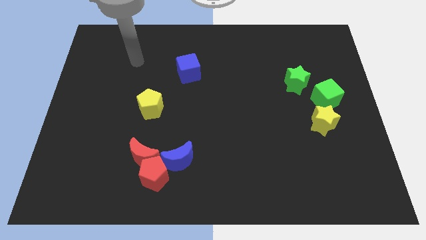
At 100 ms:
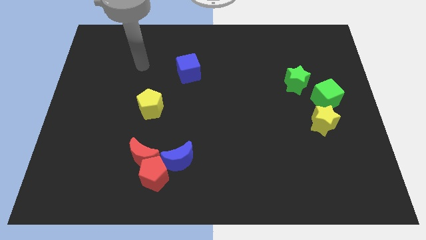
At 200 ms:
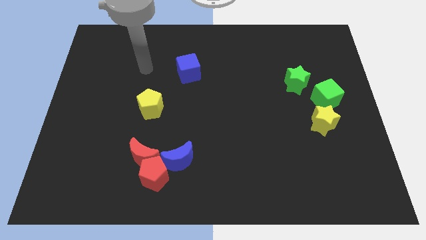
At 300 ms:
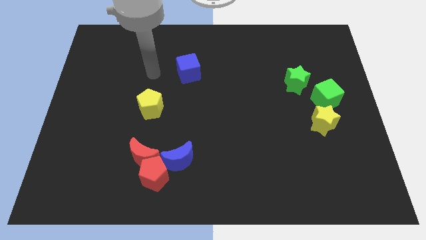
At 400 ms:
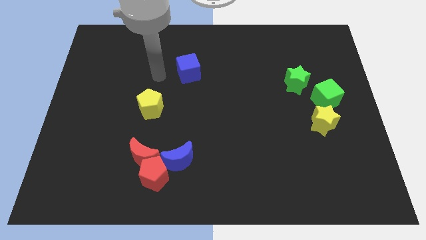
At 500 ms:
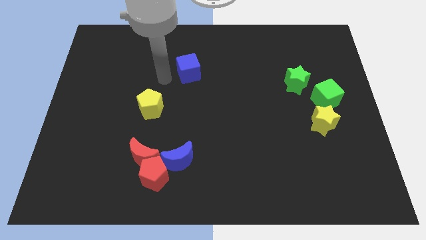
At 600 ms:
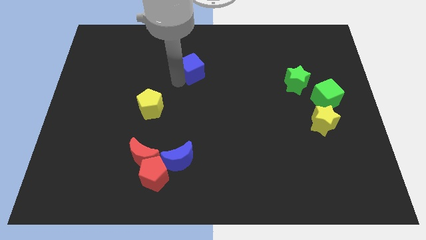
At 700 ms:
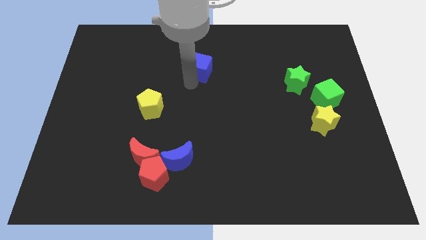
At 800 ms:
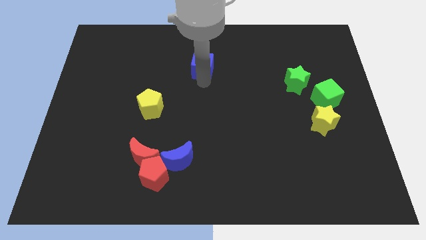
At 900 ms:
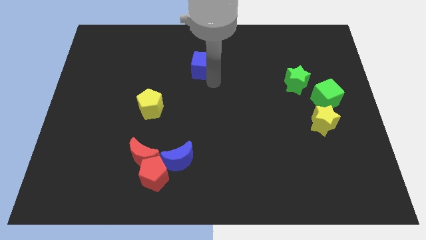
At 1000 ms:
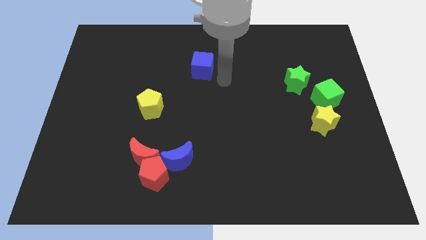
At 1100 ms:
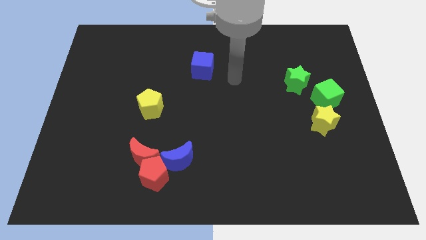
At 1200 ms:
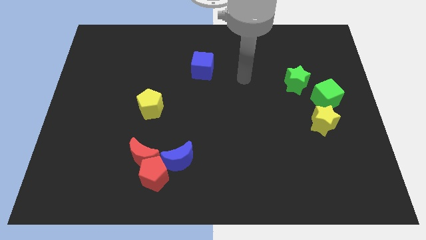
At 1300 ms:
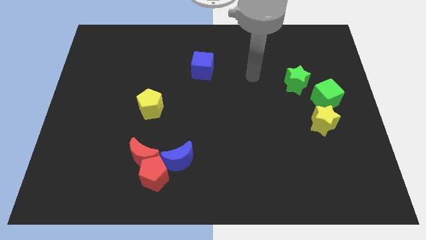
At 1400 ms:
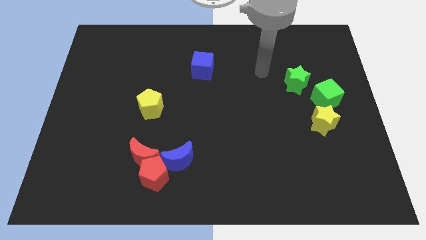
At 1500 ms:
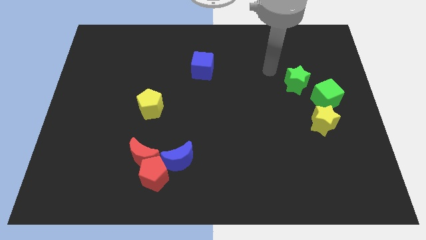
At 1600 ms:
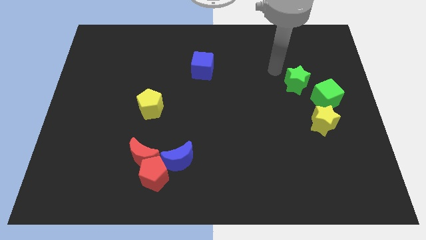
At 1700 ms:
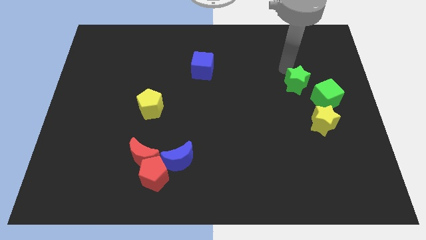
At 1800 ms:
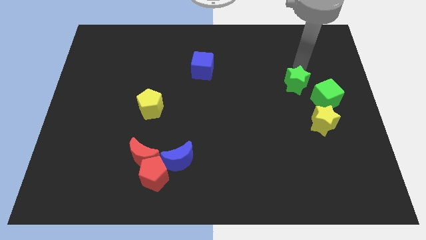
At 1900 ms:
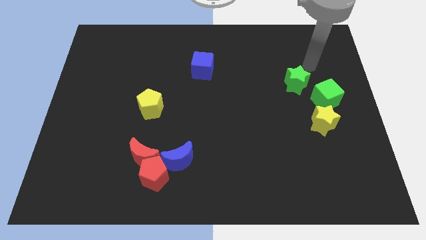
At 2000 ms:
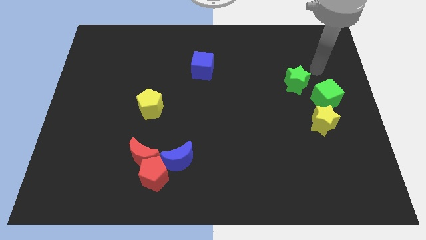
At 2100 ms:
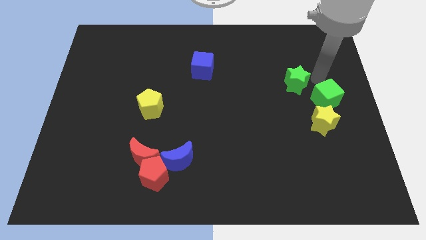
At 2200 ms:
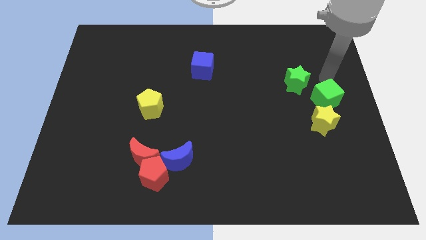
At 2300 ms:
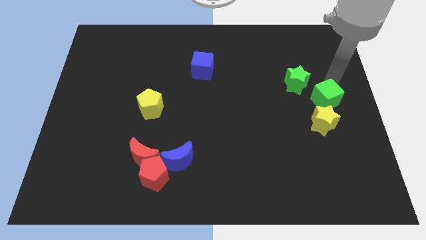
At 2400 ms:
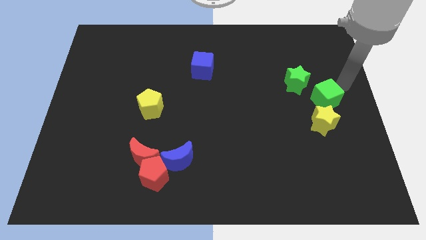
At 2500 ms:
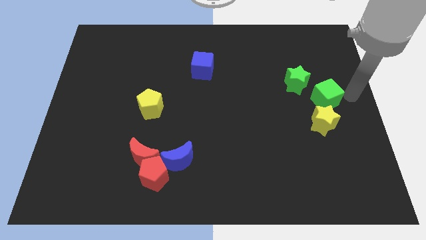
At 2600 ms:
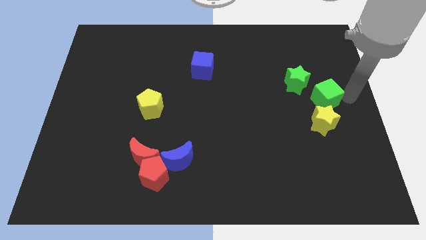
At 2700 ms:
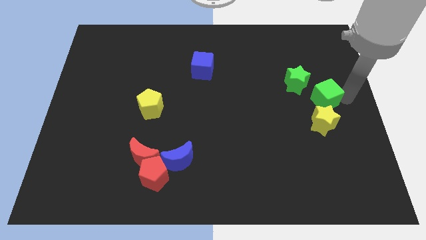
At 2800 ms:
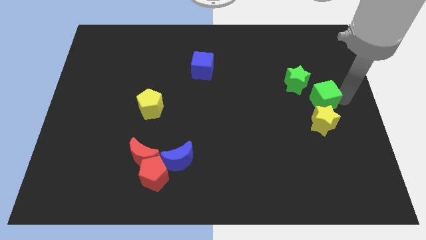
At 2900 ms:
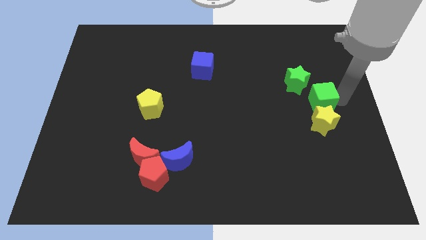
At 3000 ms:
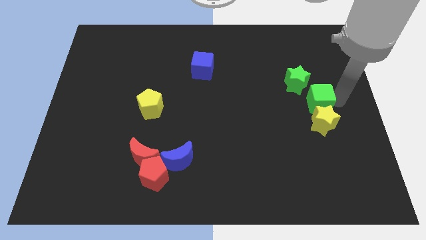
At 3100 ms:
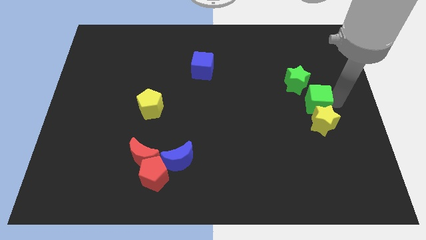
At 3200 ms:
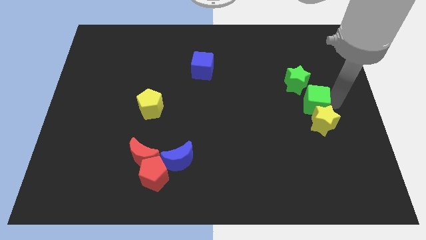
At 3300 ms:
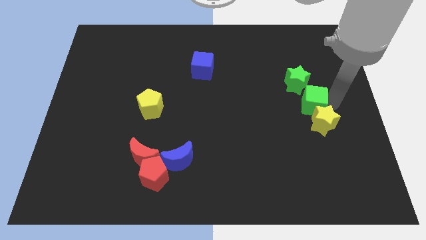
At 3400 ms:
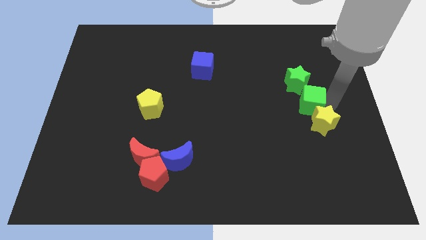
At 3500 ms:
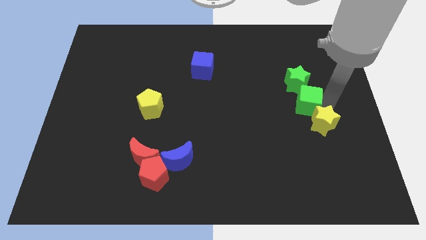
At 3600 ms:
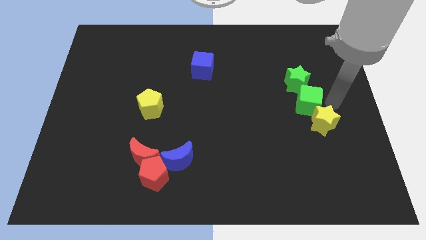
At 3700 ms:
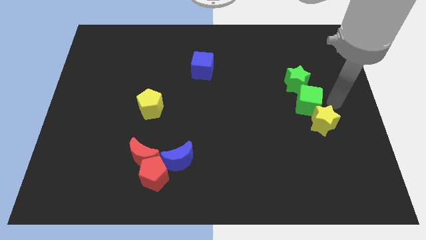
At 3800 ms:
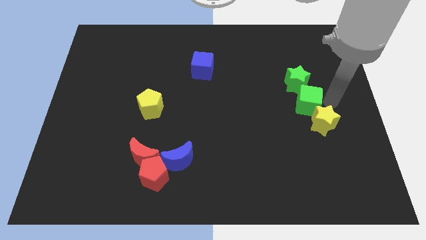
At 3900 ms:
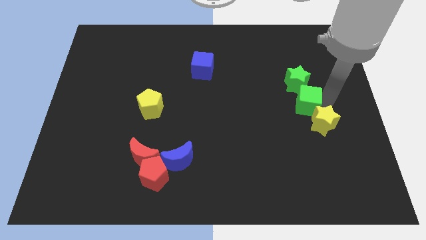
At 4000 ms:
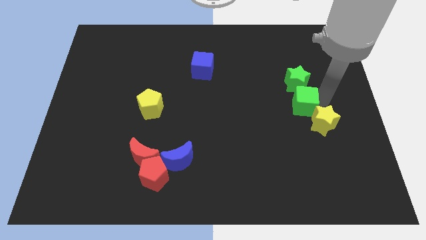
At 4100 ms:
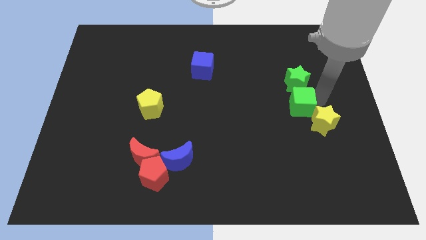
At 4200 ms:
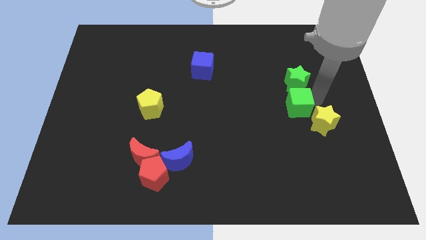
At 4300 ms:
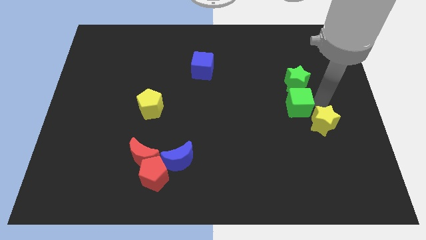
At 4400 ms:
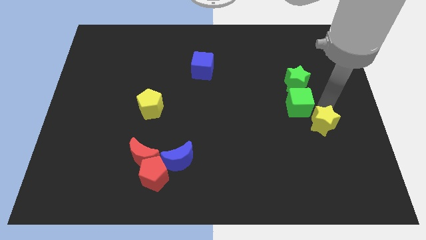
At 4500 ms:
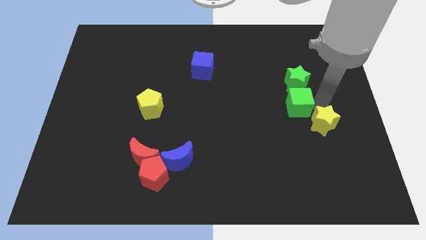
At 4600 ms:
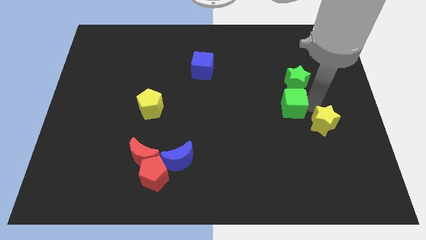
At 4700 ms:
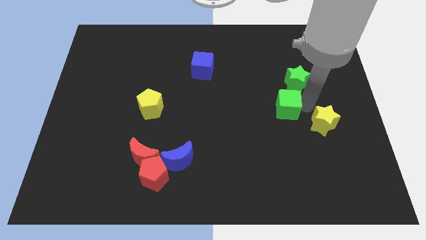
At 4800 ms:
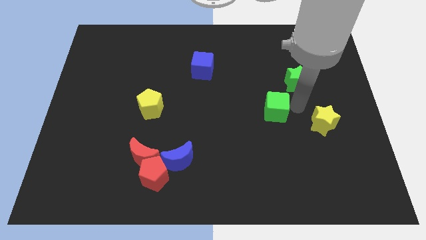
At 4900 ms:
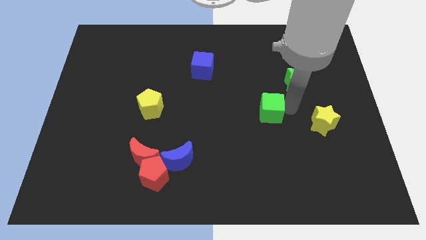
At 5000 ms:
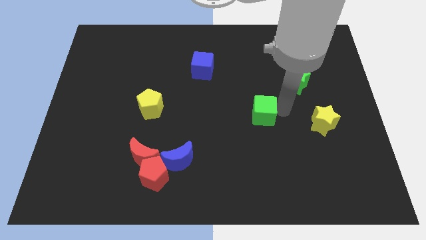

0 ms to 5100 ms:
put the green cube to the center

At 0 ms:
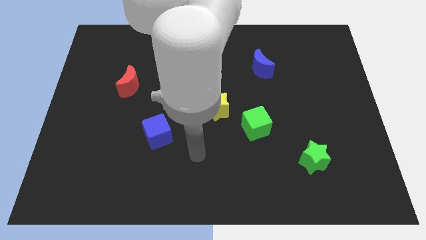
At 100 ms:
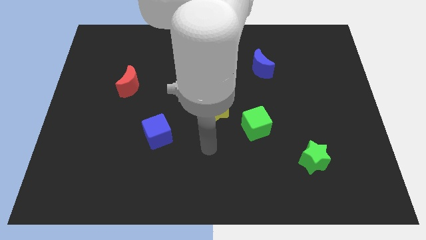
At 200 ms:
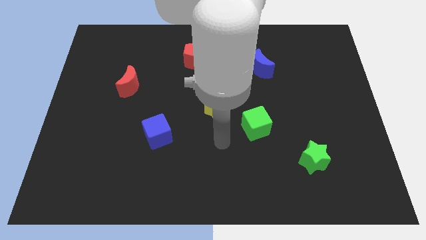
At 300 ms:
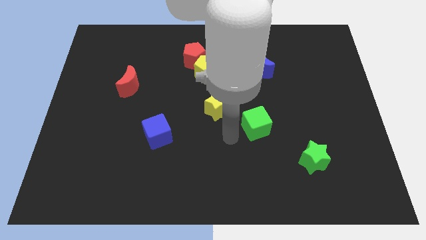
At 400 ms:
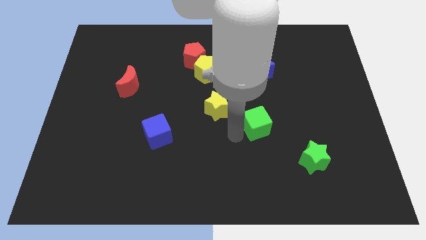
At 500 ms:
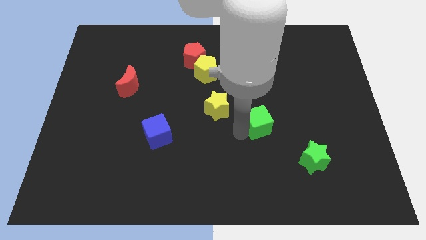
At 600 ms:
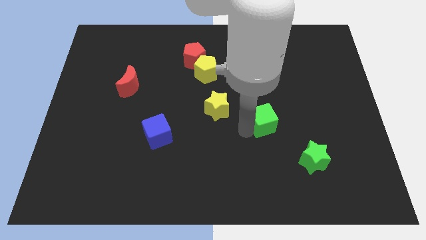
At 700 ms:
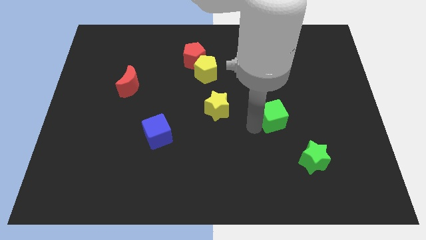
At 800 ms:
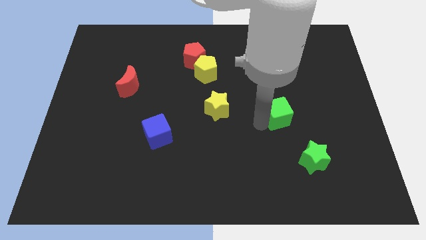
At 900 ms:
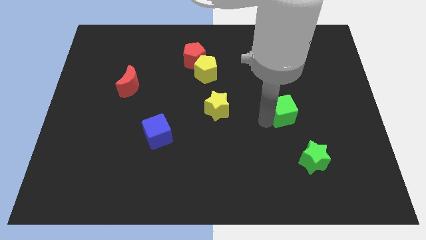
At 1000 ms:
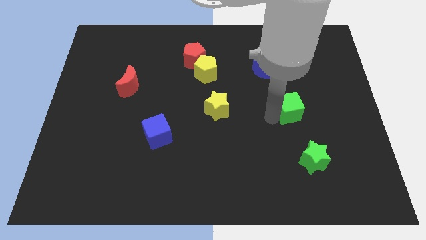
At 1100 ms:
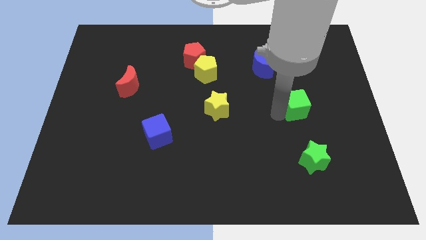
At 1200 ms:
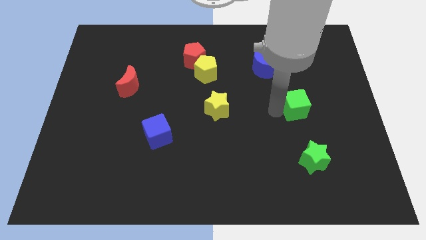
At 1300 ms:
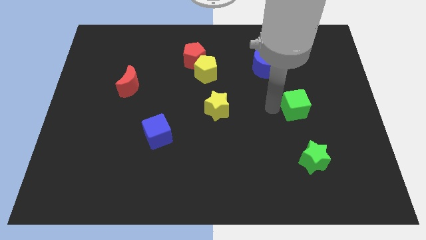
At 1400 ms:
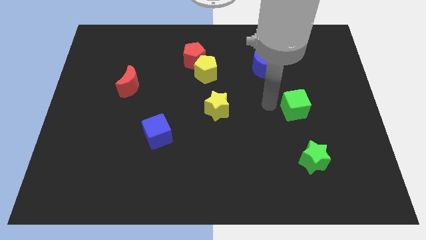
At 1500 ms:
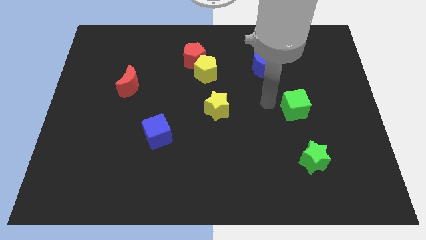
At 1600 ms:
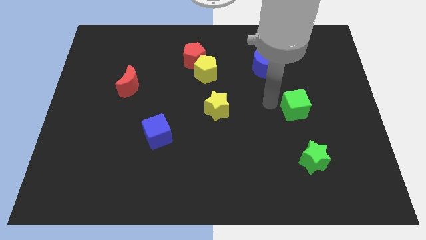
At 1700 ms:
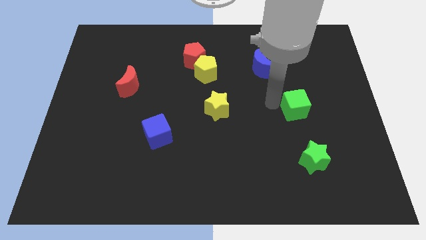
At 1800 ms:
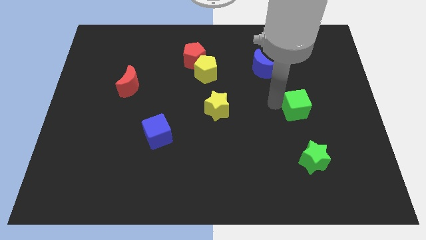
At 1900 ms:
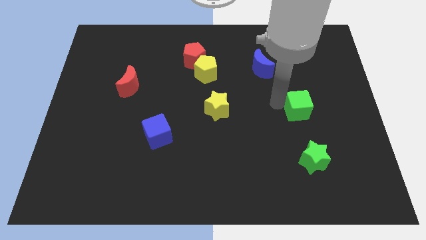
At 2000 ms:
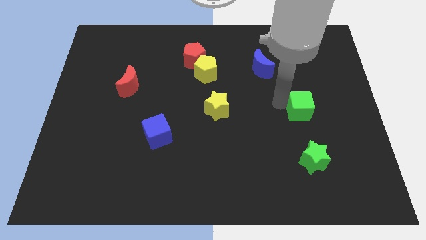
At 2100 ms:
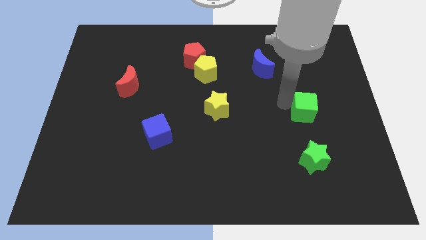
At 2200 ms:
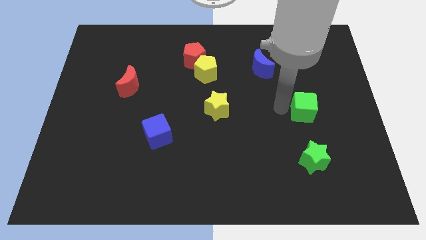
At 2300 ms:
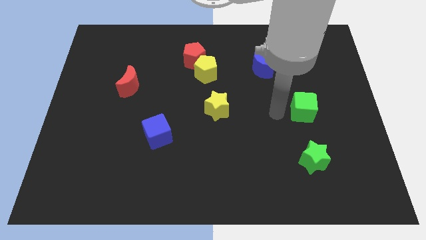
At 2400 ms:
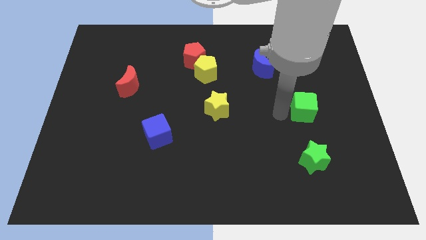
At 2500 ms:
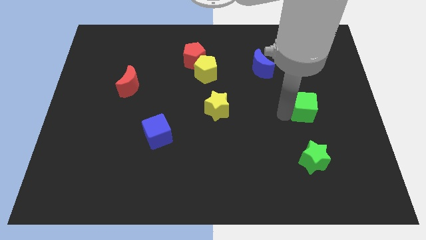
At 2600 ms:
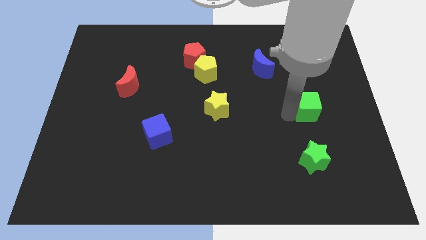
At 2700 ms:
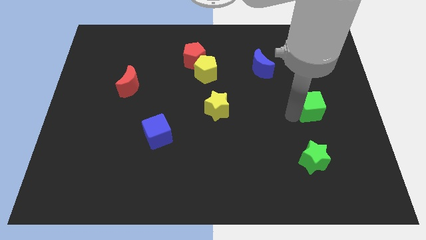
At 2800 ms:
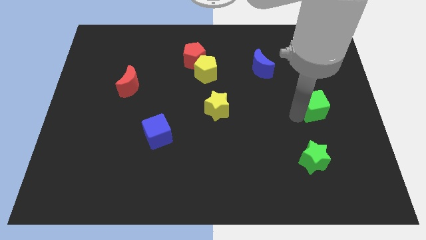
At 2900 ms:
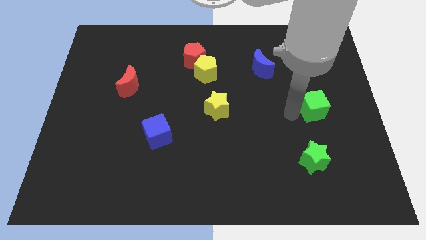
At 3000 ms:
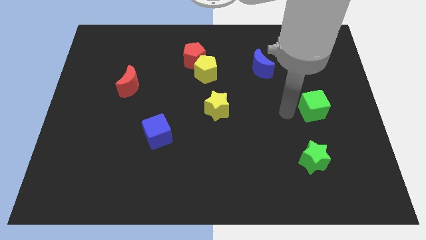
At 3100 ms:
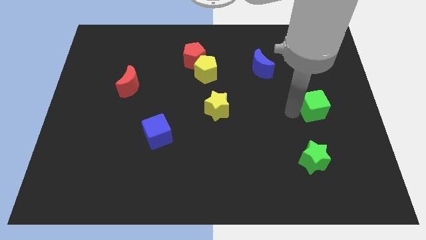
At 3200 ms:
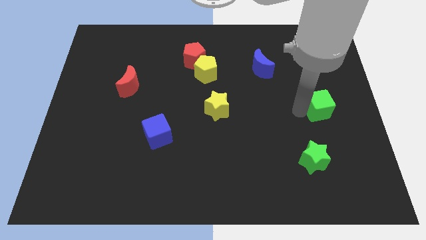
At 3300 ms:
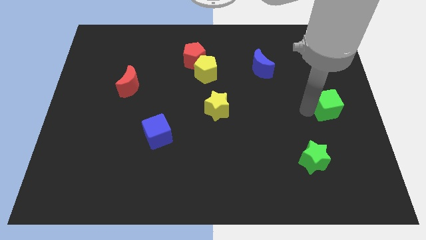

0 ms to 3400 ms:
move the green cube to the right side
